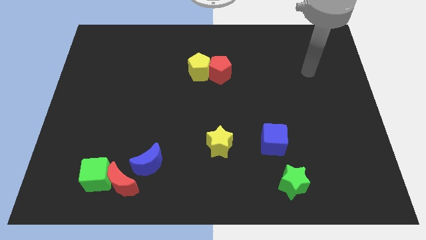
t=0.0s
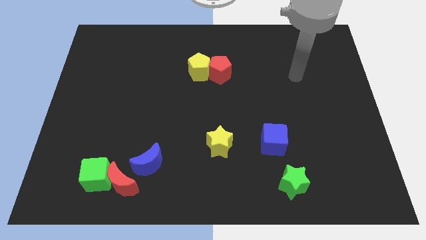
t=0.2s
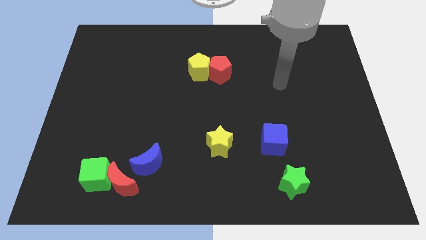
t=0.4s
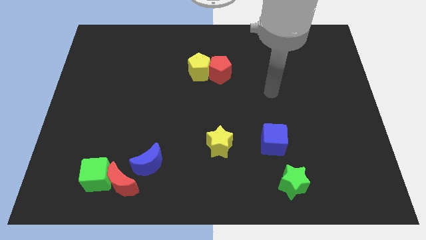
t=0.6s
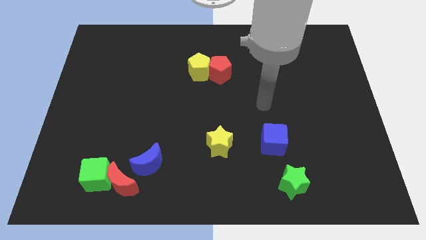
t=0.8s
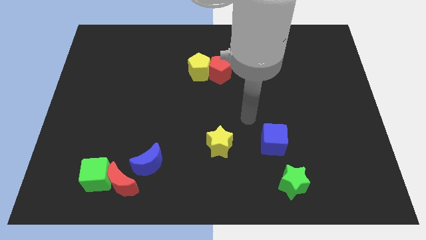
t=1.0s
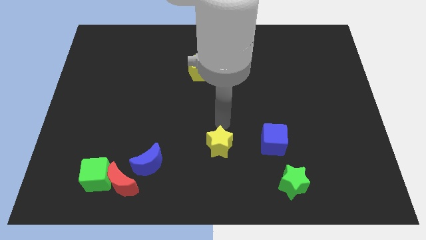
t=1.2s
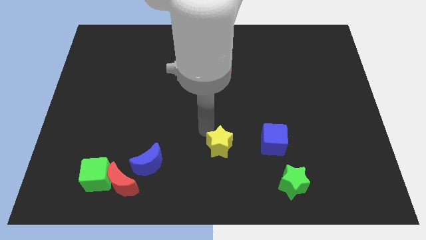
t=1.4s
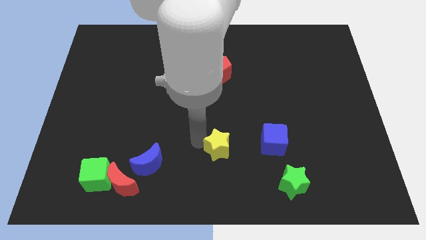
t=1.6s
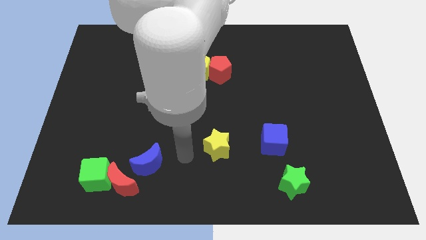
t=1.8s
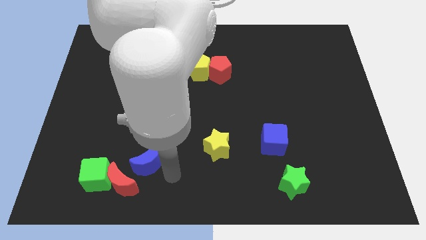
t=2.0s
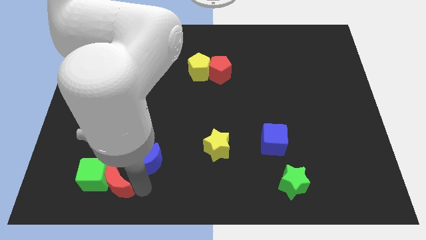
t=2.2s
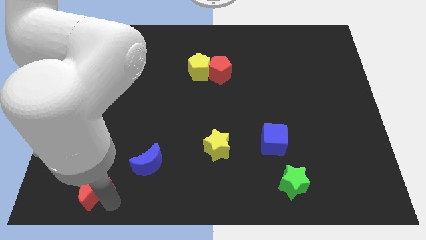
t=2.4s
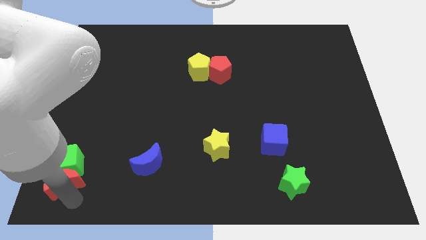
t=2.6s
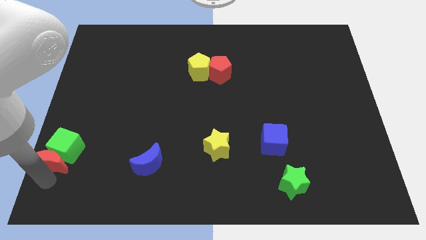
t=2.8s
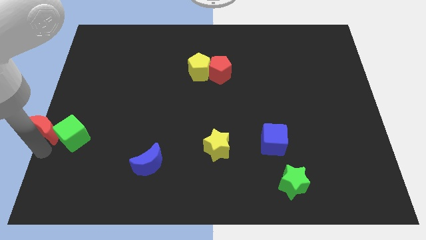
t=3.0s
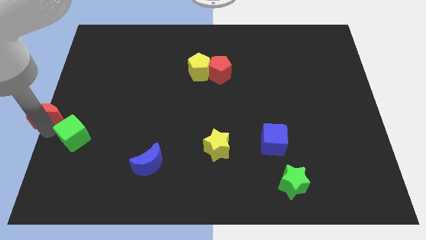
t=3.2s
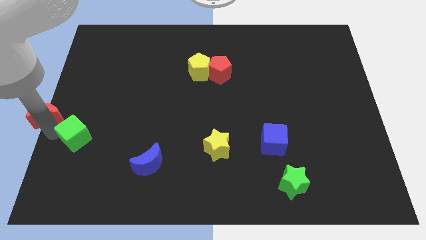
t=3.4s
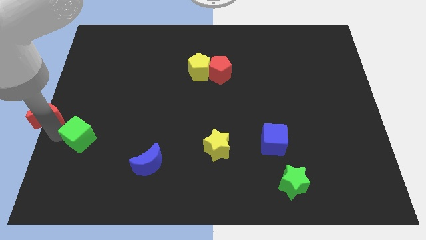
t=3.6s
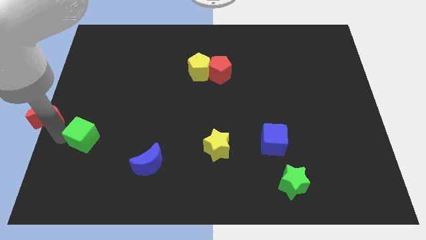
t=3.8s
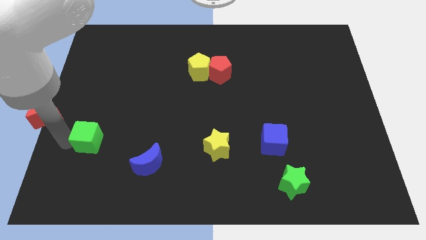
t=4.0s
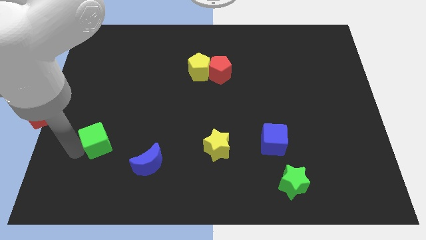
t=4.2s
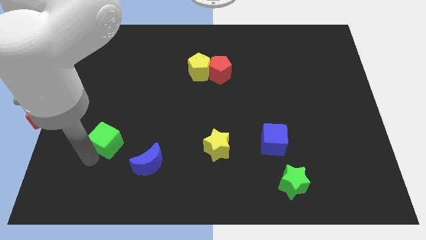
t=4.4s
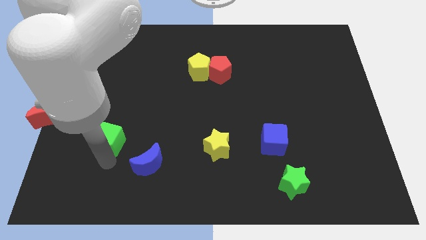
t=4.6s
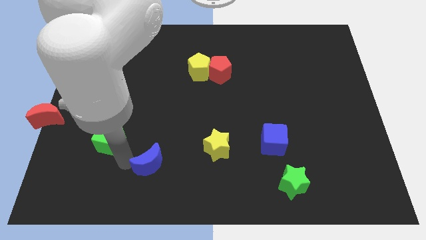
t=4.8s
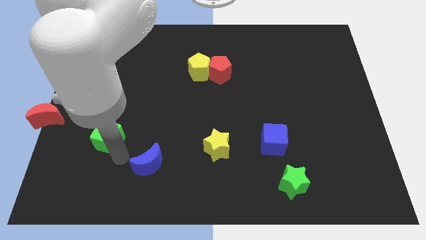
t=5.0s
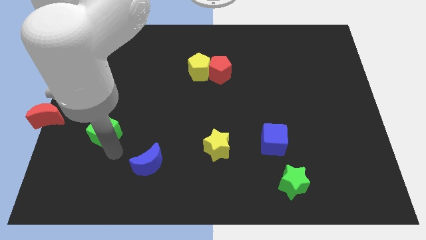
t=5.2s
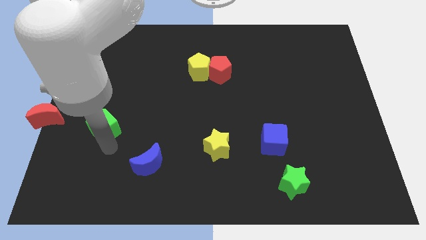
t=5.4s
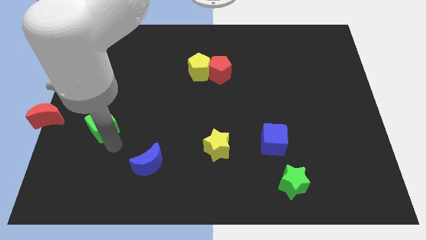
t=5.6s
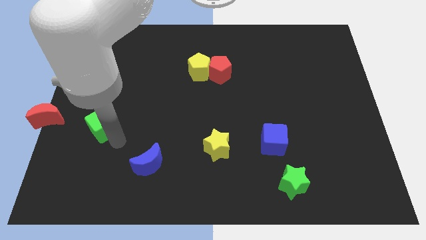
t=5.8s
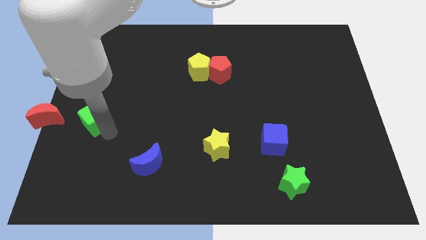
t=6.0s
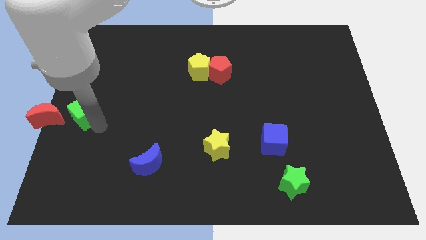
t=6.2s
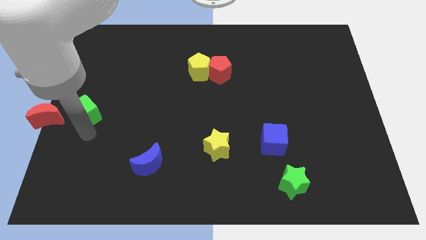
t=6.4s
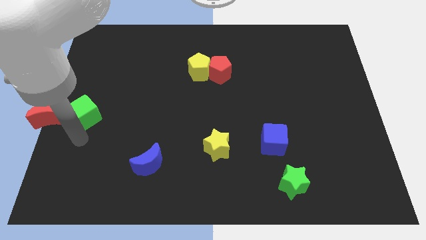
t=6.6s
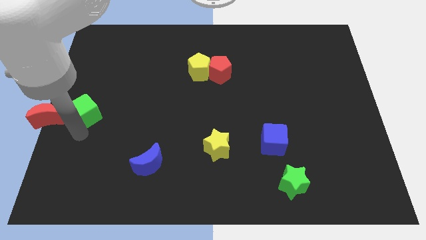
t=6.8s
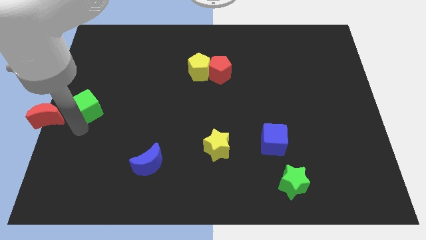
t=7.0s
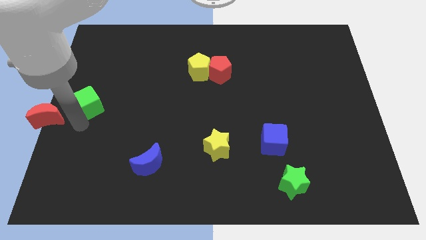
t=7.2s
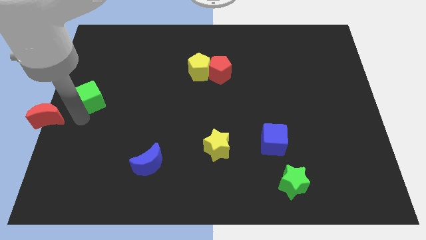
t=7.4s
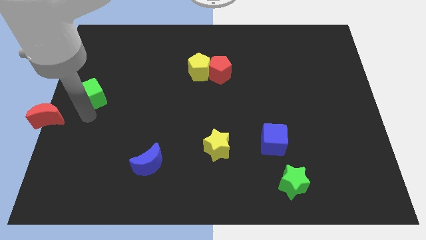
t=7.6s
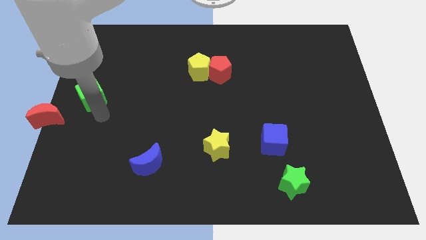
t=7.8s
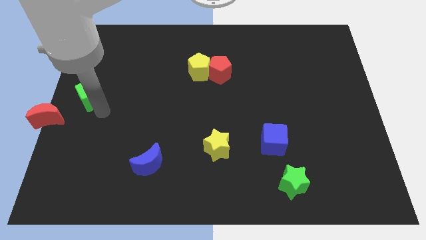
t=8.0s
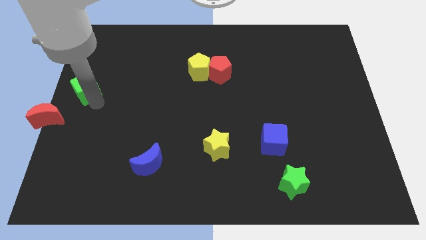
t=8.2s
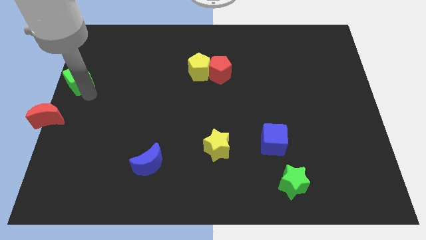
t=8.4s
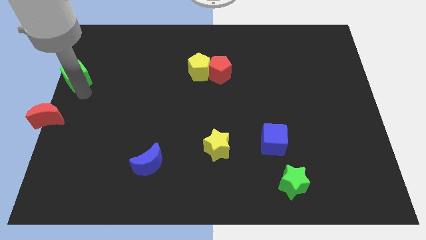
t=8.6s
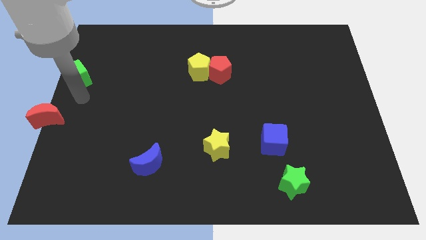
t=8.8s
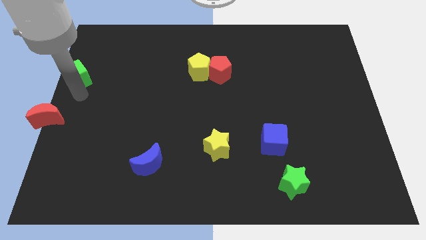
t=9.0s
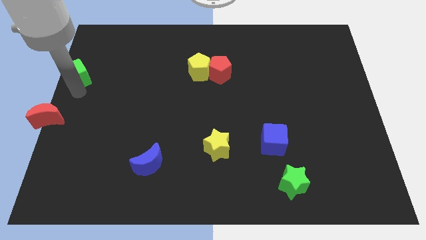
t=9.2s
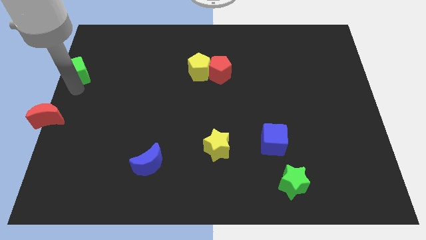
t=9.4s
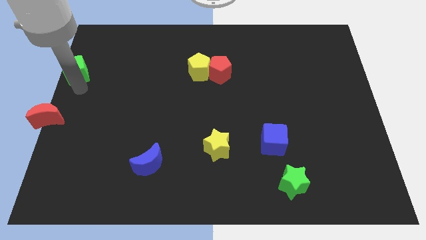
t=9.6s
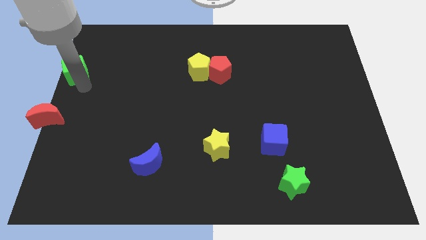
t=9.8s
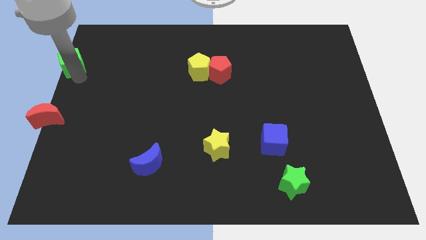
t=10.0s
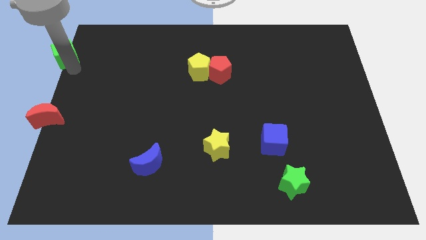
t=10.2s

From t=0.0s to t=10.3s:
push the green cube to the top left
